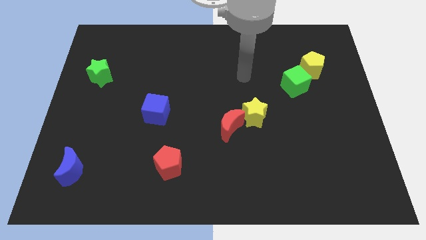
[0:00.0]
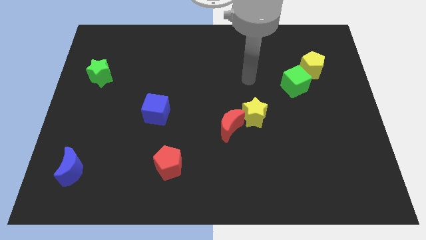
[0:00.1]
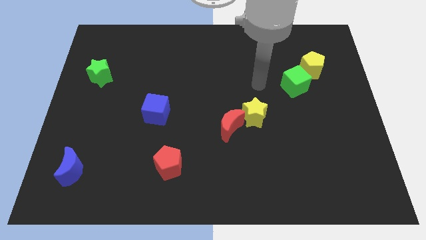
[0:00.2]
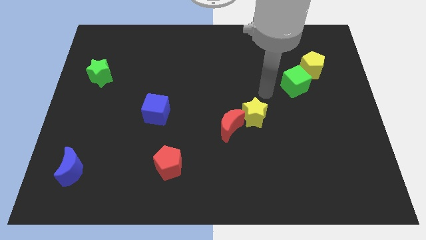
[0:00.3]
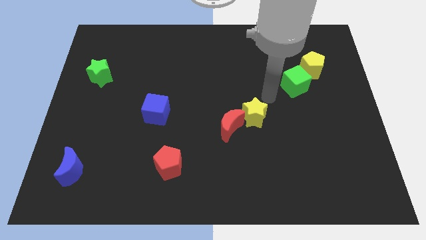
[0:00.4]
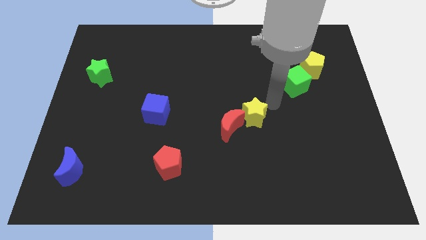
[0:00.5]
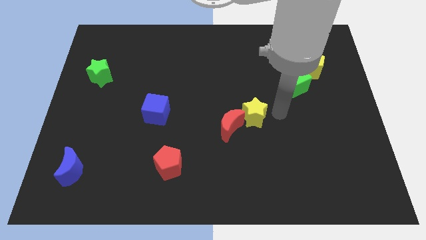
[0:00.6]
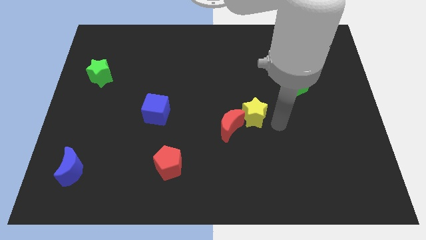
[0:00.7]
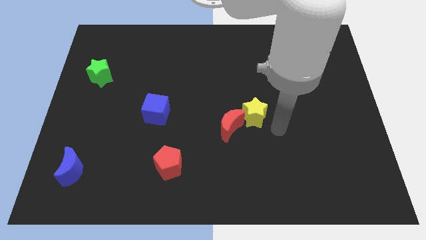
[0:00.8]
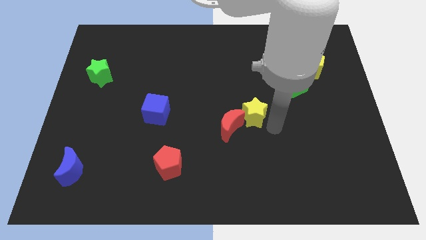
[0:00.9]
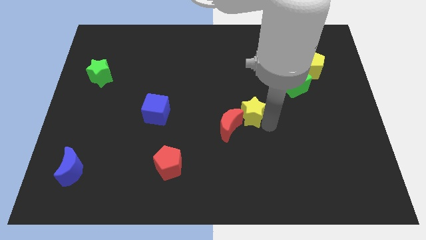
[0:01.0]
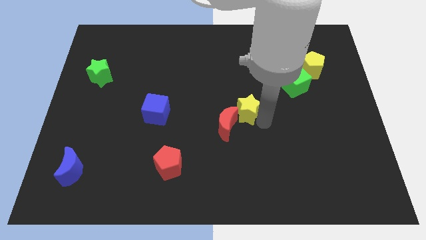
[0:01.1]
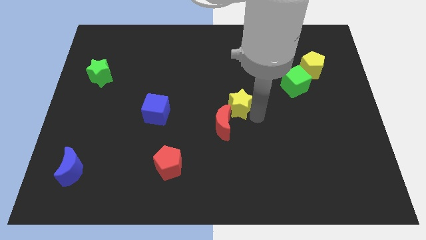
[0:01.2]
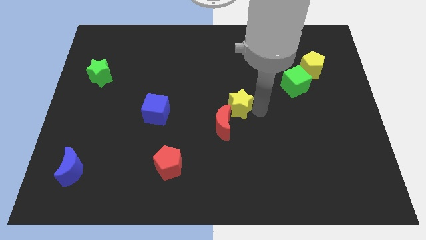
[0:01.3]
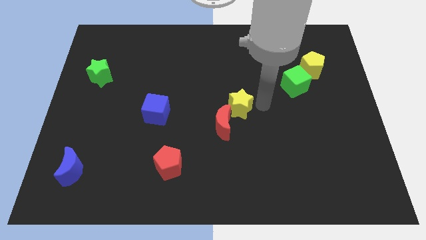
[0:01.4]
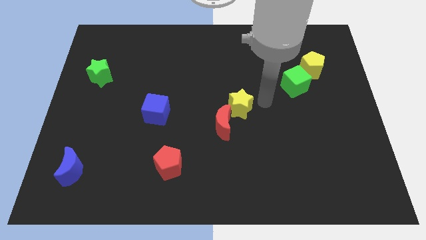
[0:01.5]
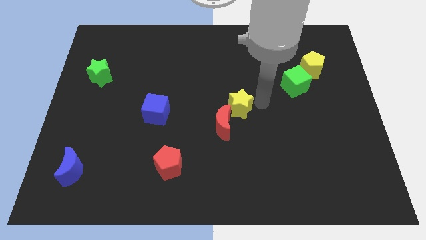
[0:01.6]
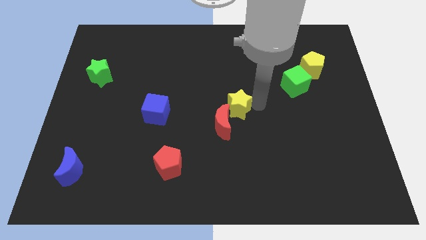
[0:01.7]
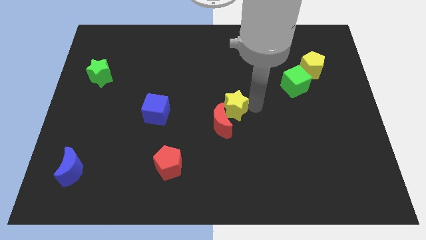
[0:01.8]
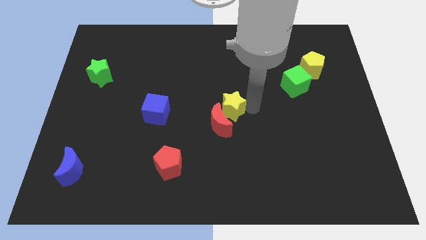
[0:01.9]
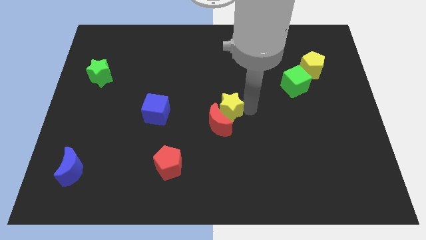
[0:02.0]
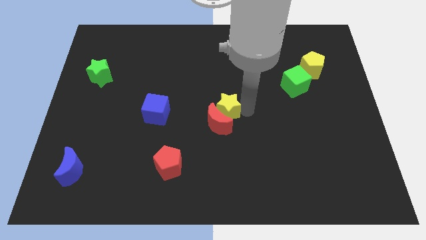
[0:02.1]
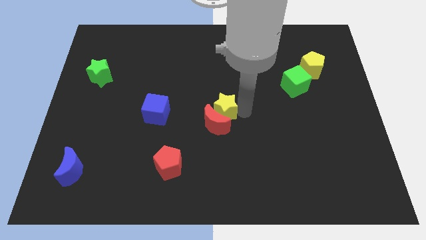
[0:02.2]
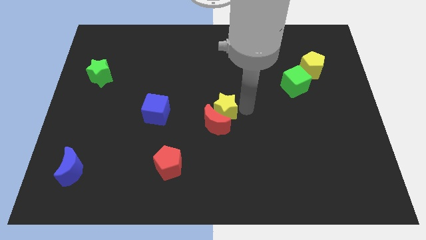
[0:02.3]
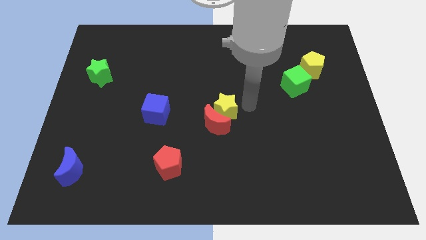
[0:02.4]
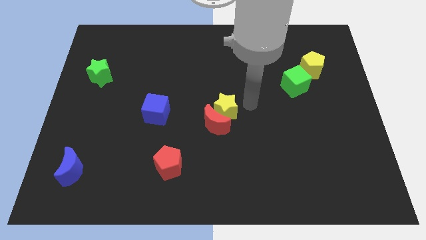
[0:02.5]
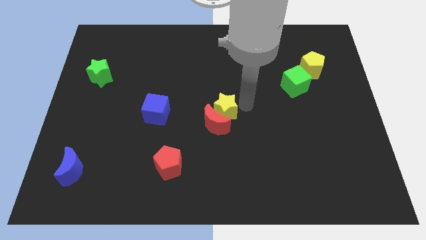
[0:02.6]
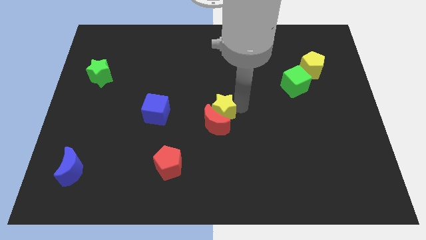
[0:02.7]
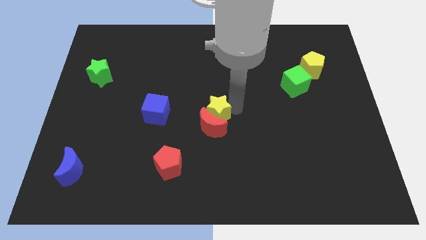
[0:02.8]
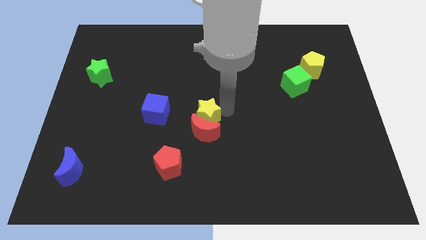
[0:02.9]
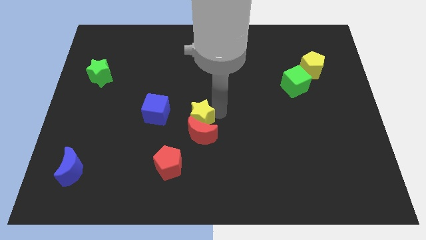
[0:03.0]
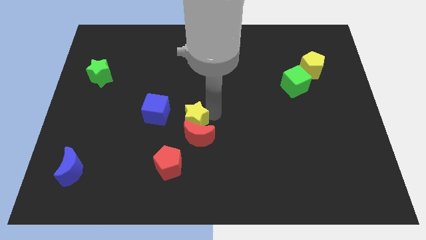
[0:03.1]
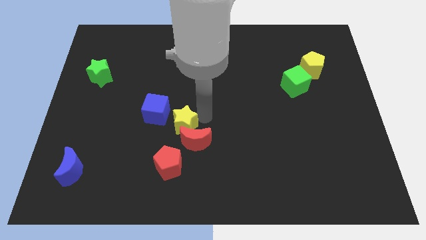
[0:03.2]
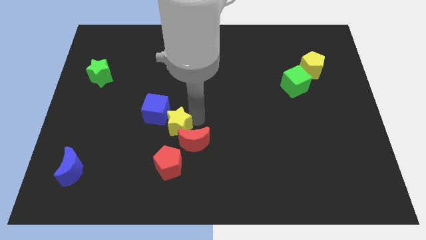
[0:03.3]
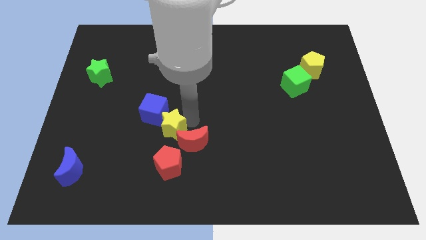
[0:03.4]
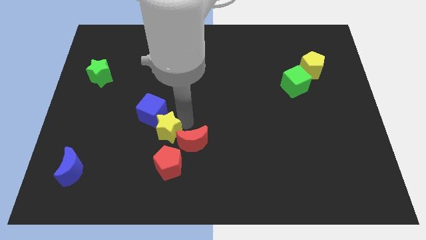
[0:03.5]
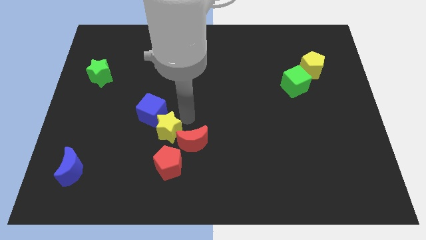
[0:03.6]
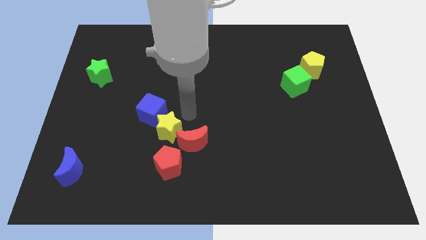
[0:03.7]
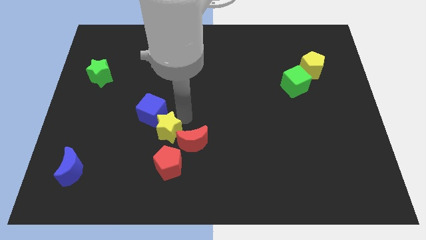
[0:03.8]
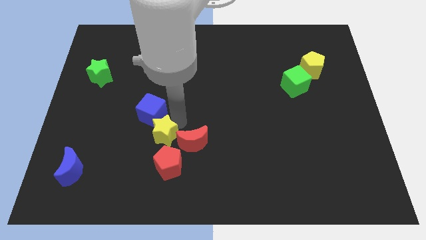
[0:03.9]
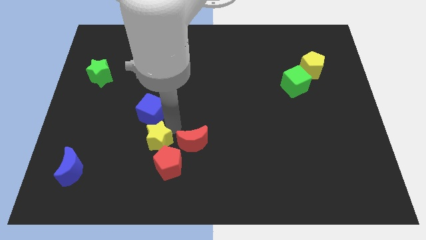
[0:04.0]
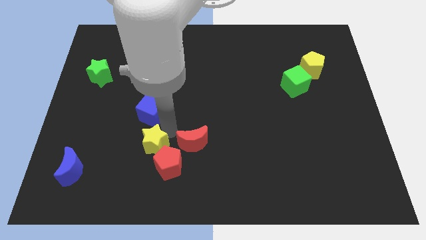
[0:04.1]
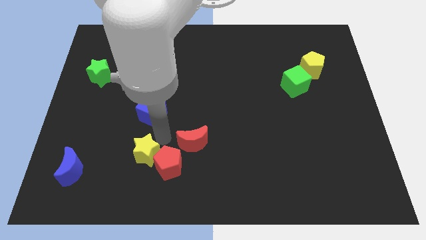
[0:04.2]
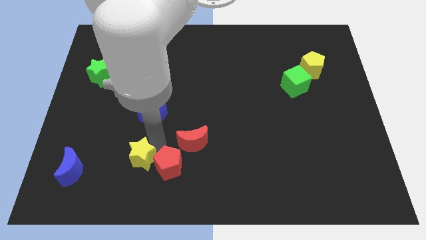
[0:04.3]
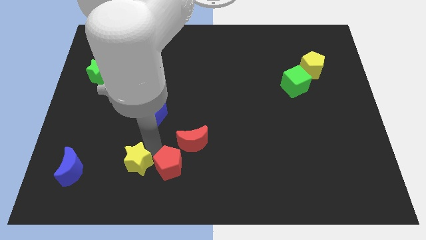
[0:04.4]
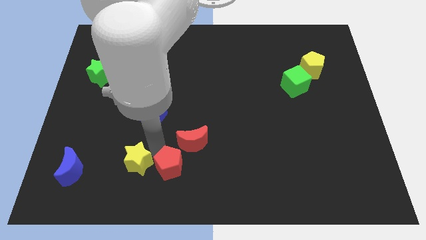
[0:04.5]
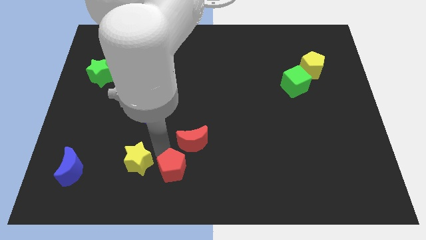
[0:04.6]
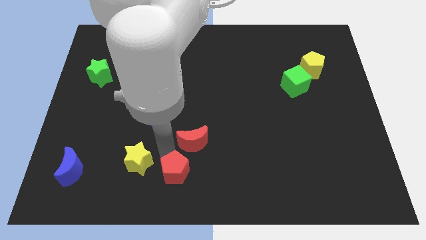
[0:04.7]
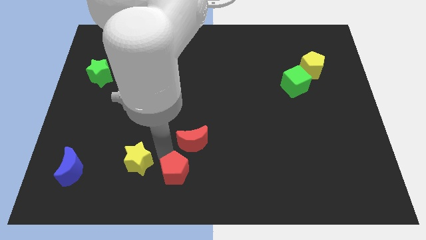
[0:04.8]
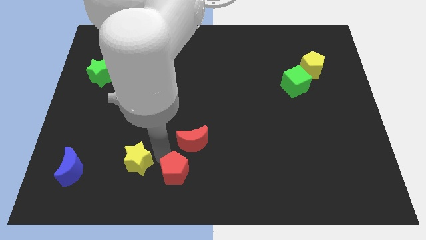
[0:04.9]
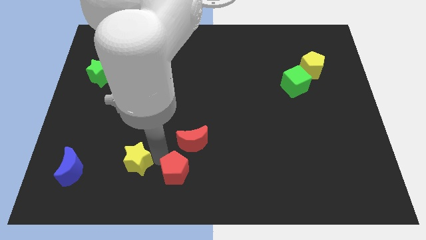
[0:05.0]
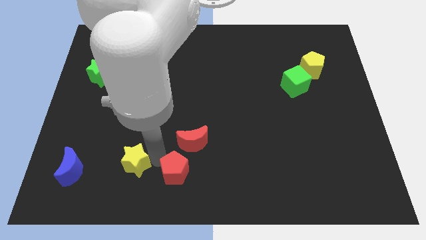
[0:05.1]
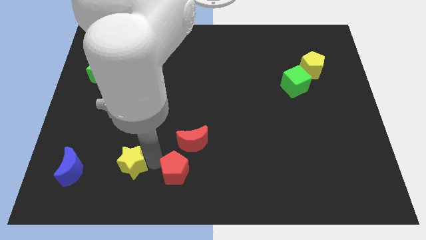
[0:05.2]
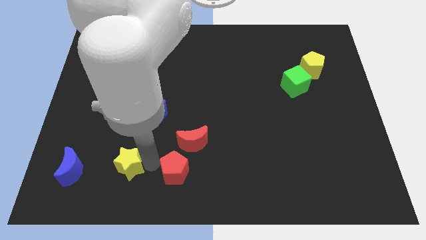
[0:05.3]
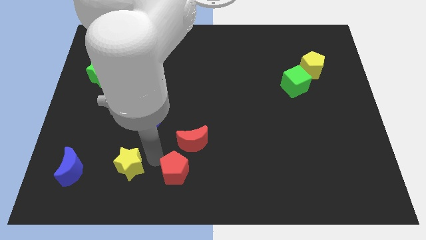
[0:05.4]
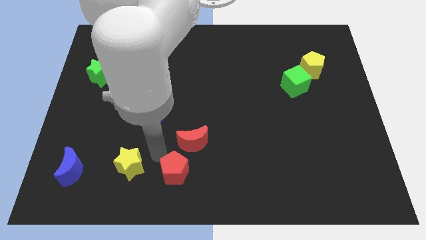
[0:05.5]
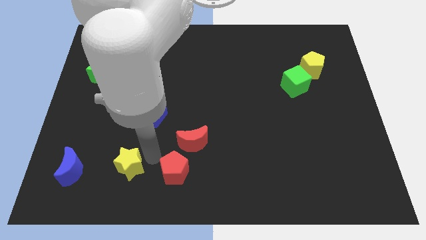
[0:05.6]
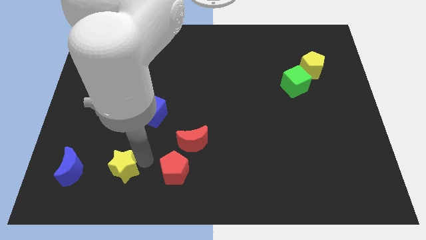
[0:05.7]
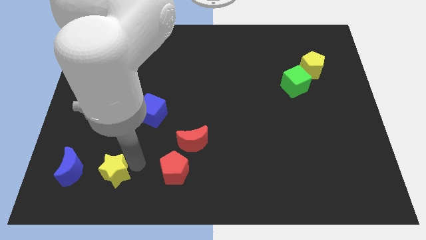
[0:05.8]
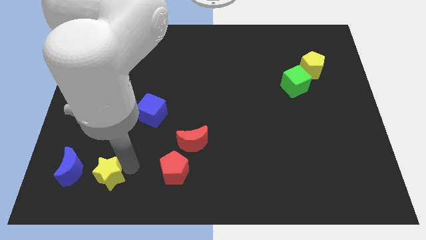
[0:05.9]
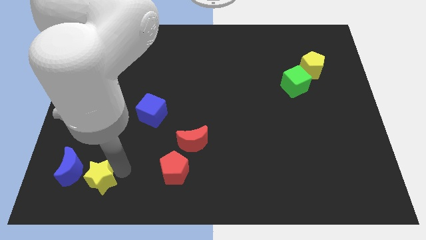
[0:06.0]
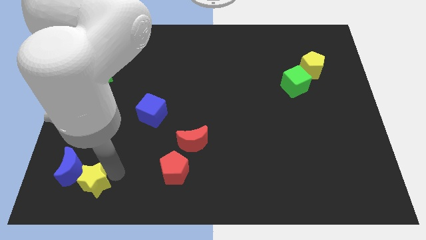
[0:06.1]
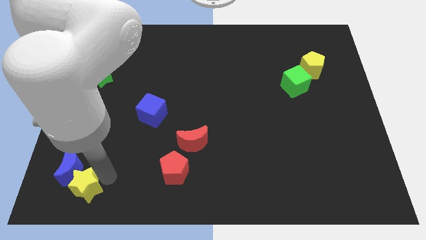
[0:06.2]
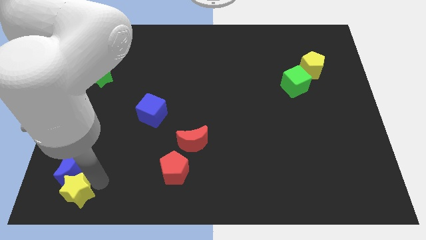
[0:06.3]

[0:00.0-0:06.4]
move the yellow star to the bottom left corner
